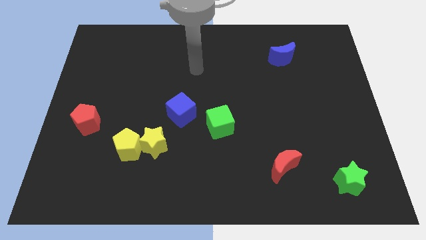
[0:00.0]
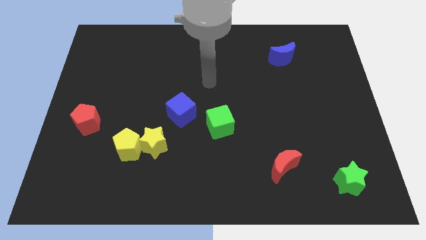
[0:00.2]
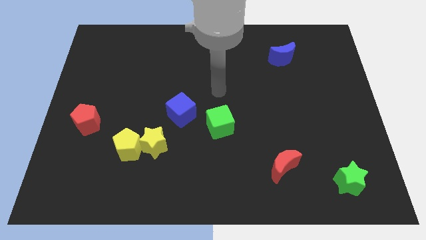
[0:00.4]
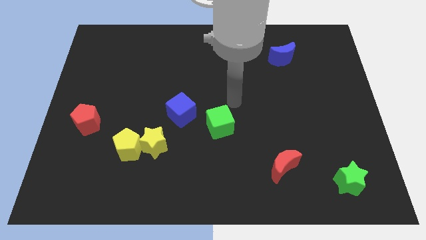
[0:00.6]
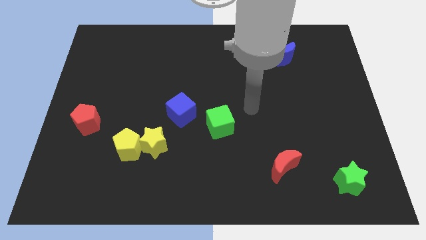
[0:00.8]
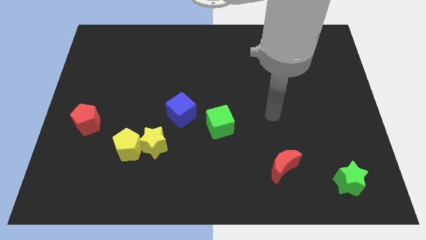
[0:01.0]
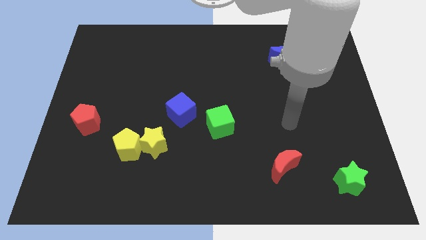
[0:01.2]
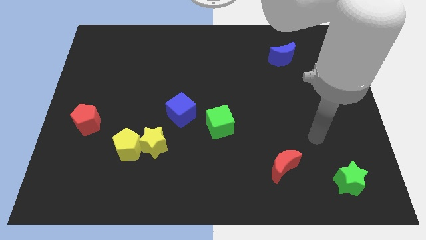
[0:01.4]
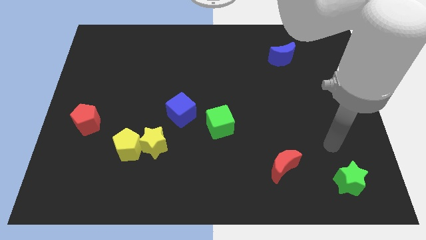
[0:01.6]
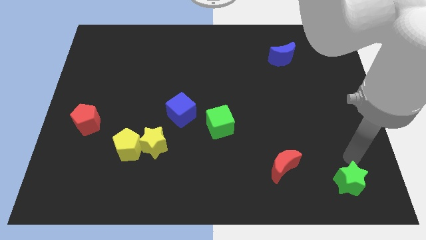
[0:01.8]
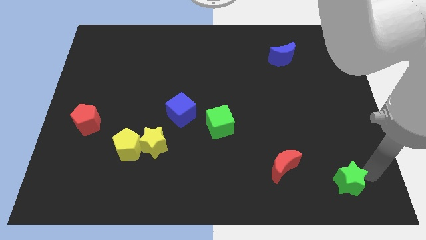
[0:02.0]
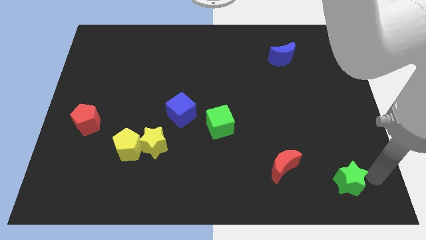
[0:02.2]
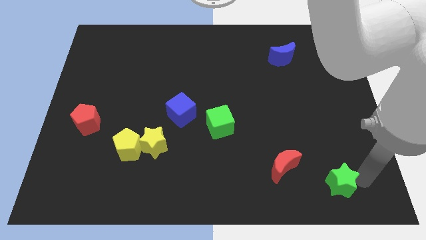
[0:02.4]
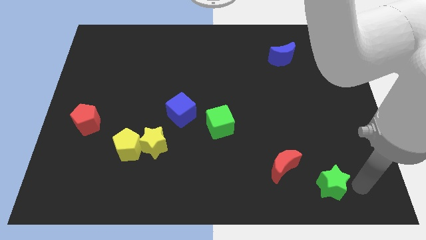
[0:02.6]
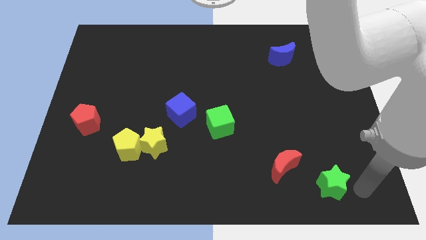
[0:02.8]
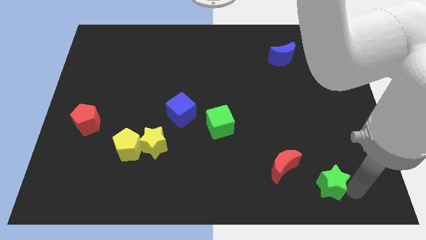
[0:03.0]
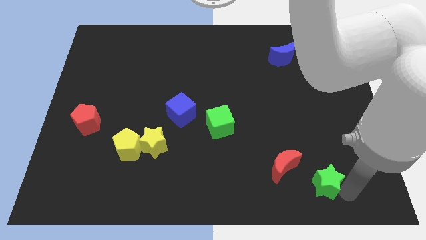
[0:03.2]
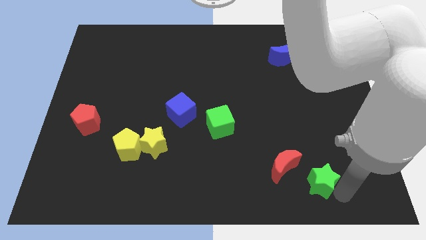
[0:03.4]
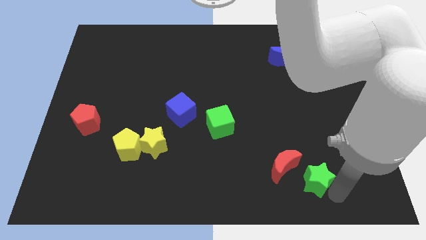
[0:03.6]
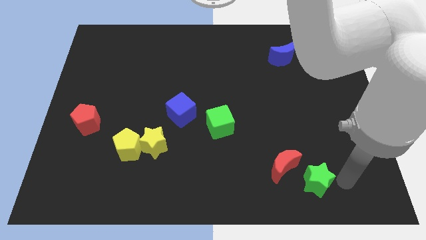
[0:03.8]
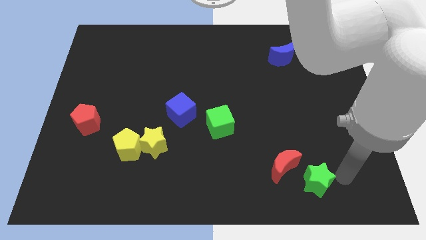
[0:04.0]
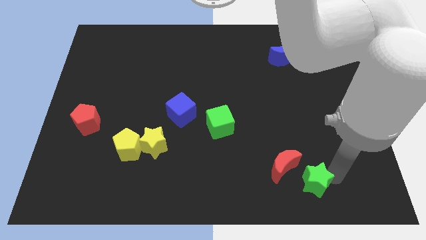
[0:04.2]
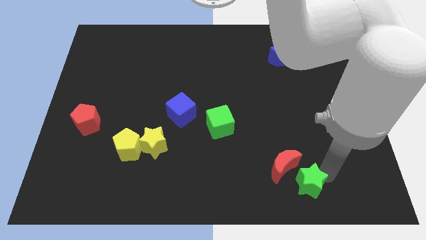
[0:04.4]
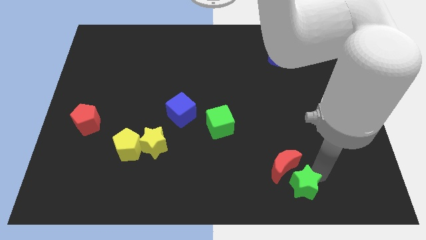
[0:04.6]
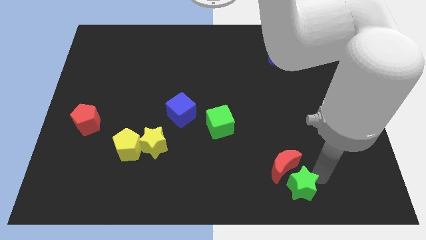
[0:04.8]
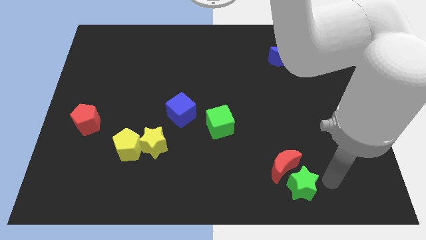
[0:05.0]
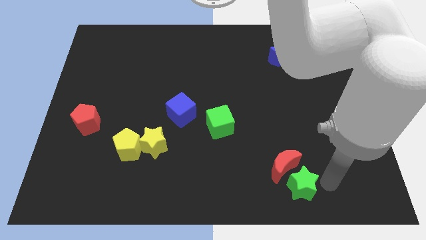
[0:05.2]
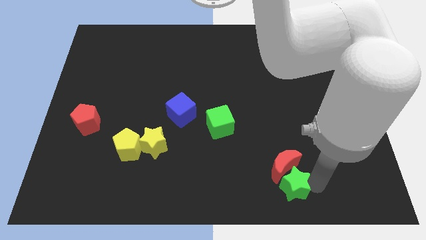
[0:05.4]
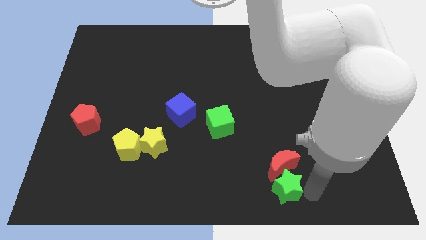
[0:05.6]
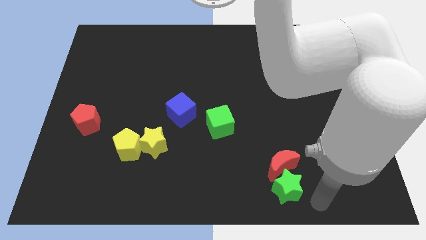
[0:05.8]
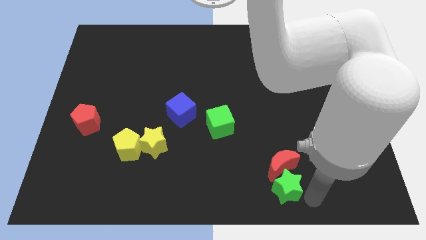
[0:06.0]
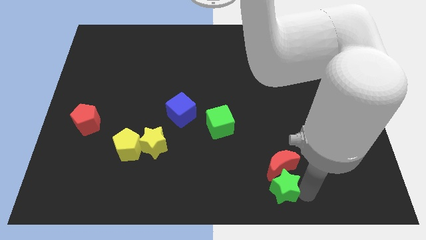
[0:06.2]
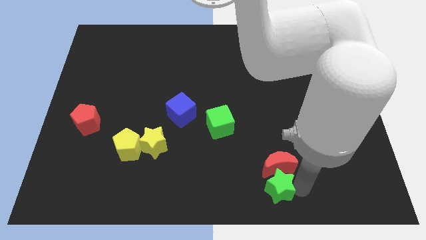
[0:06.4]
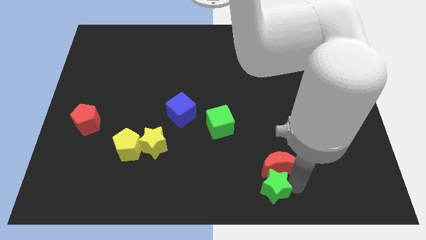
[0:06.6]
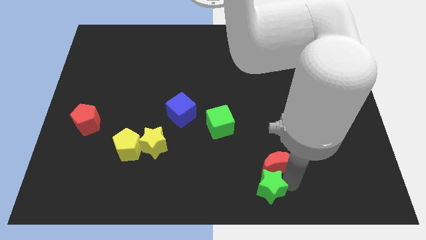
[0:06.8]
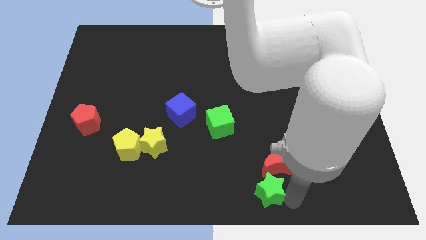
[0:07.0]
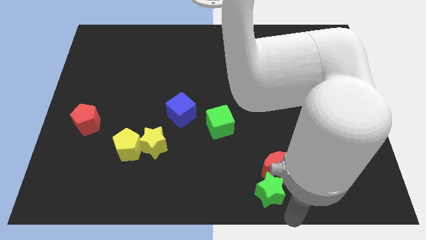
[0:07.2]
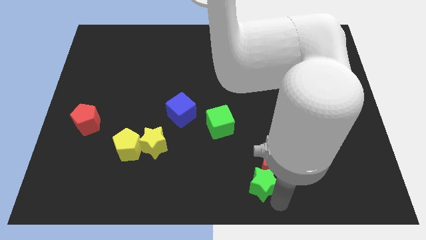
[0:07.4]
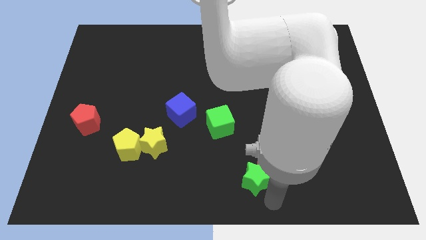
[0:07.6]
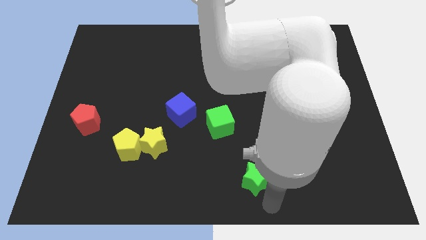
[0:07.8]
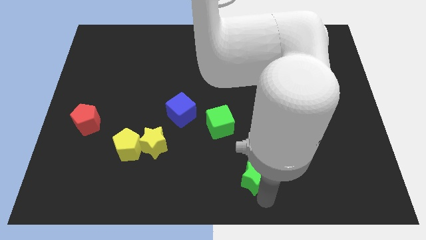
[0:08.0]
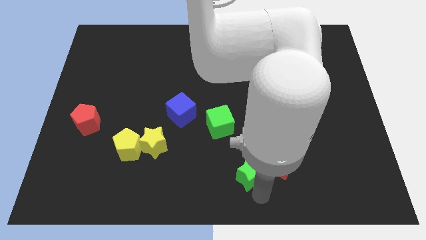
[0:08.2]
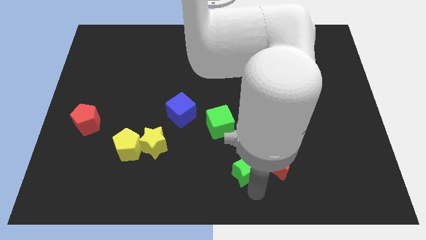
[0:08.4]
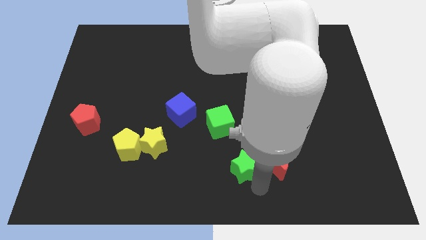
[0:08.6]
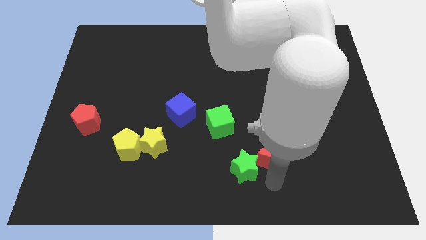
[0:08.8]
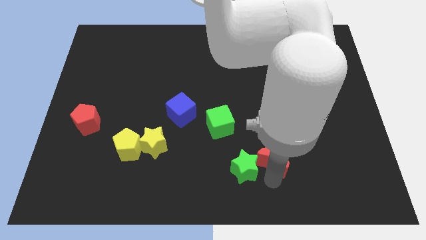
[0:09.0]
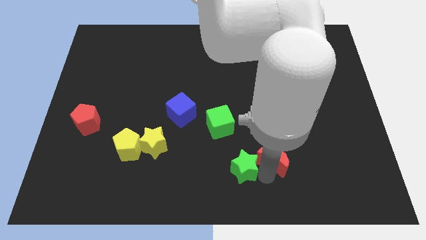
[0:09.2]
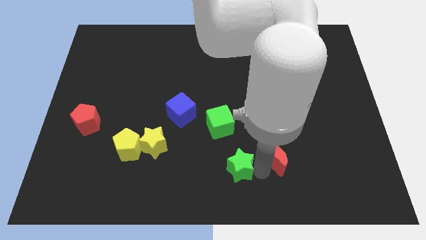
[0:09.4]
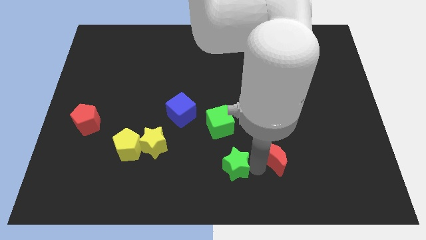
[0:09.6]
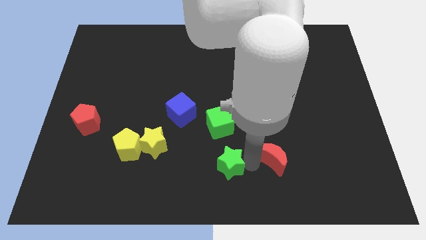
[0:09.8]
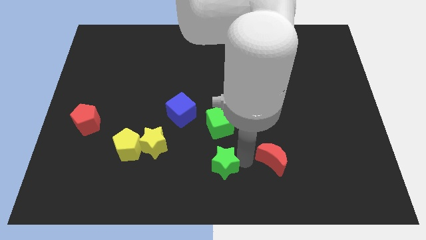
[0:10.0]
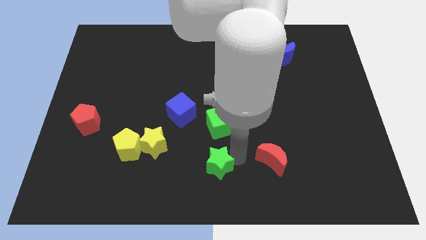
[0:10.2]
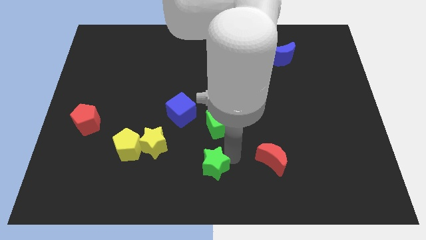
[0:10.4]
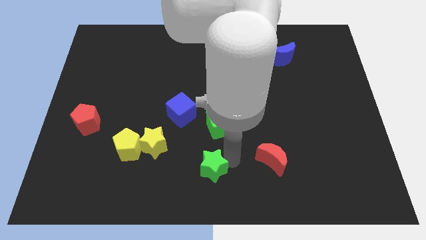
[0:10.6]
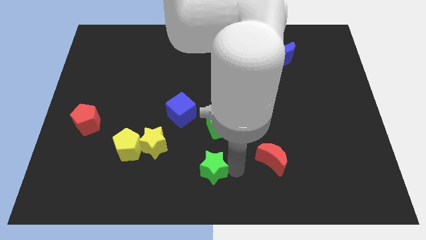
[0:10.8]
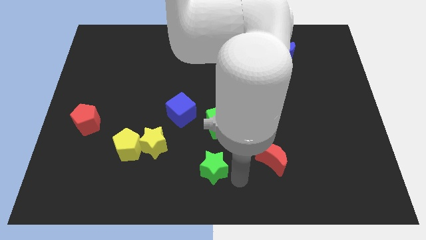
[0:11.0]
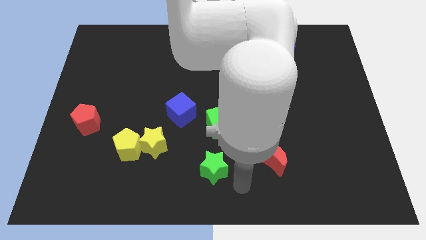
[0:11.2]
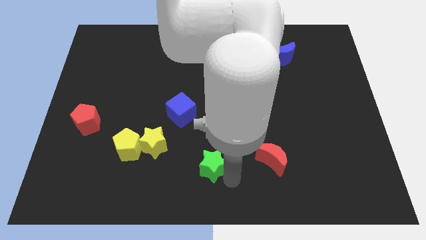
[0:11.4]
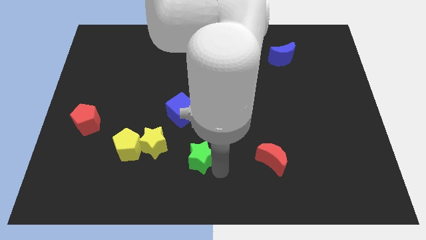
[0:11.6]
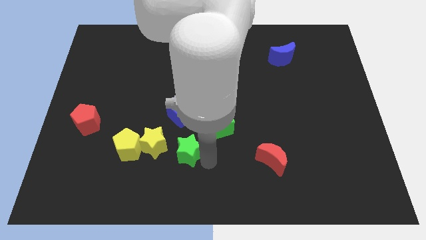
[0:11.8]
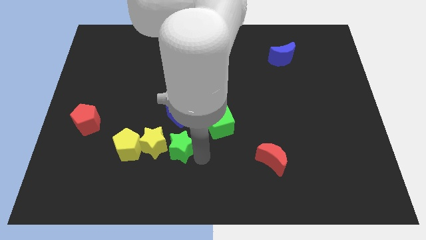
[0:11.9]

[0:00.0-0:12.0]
put the green star towards the yellow star

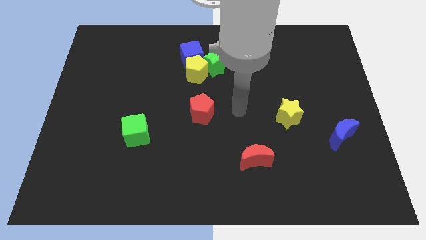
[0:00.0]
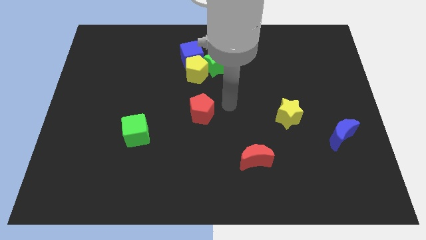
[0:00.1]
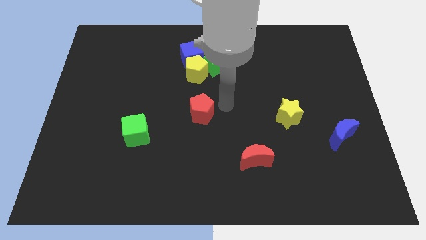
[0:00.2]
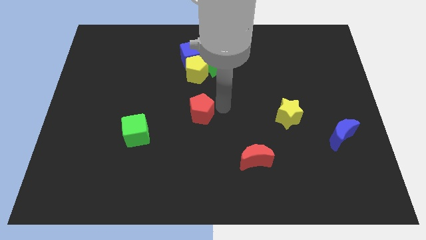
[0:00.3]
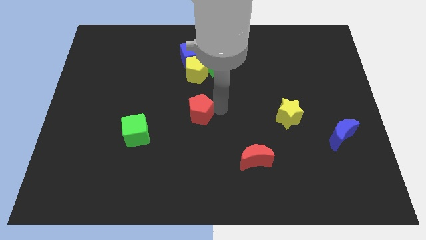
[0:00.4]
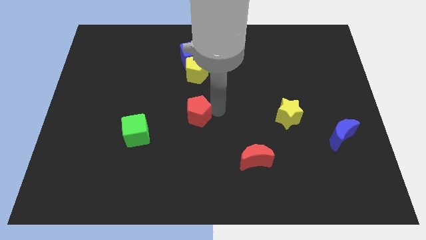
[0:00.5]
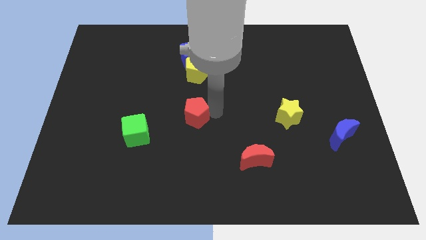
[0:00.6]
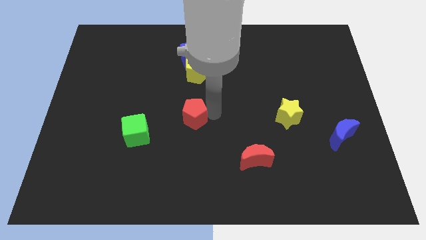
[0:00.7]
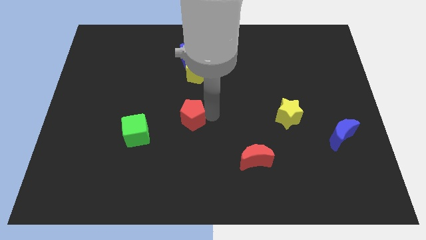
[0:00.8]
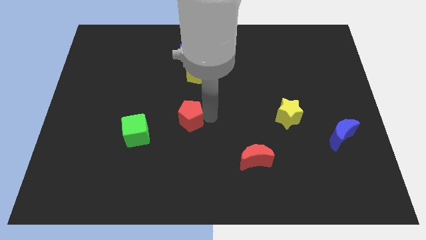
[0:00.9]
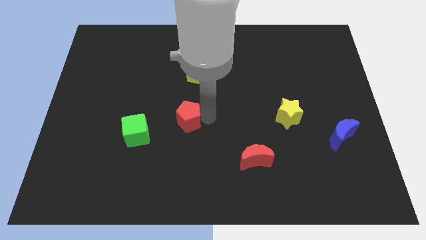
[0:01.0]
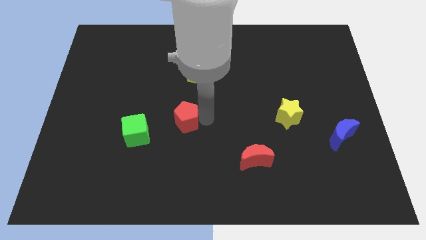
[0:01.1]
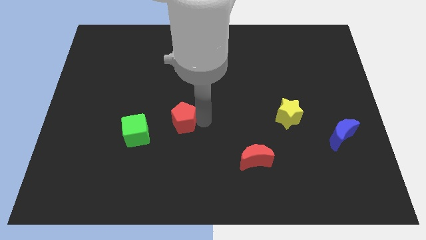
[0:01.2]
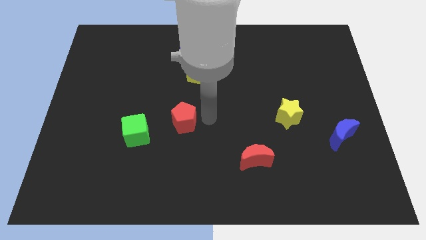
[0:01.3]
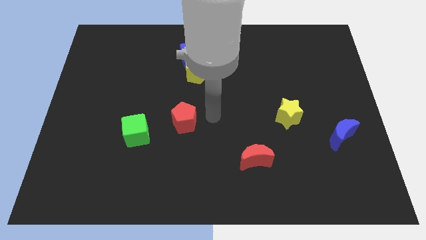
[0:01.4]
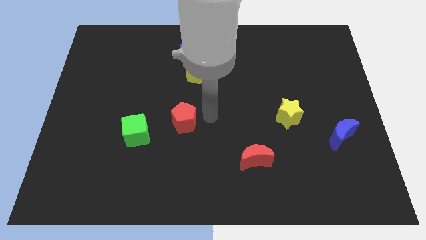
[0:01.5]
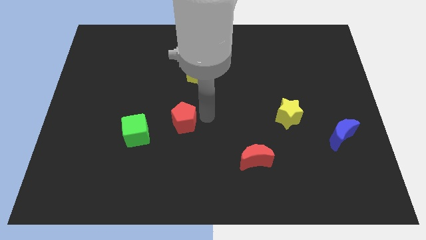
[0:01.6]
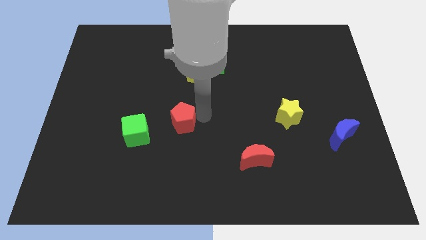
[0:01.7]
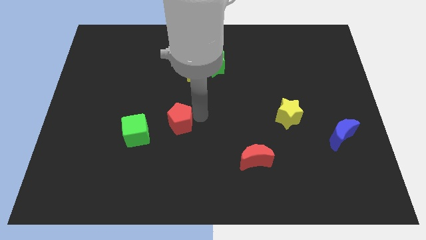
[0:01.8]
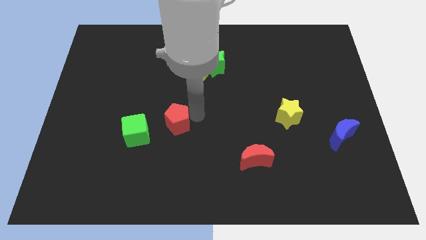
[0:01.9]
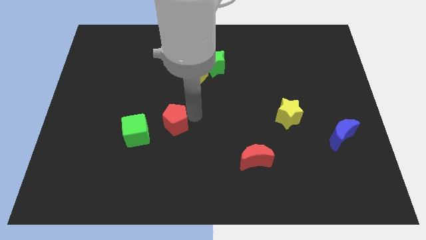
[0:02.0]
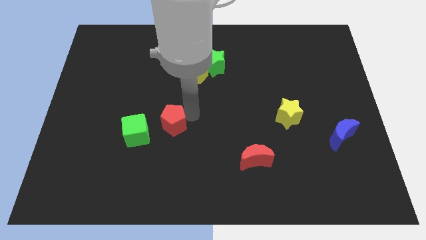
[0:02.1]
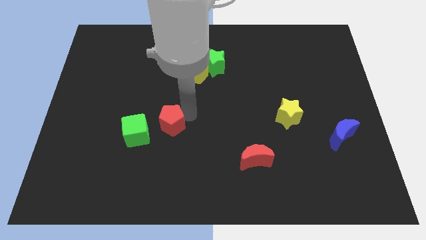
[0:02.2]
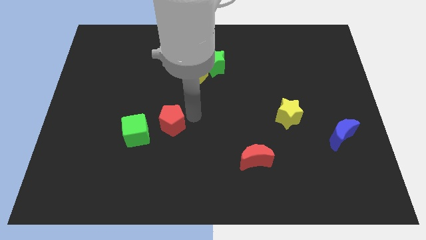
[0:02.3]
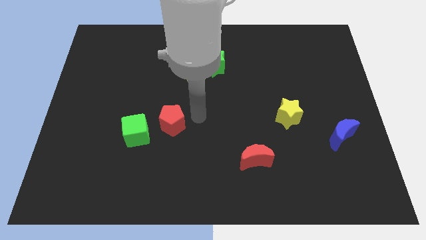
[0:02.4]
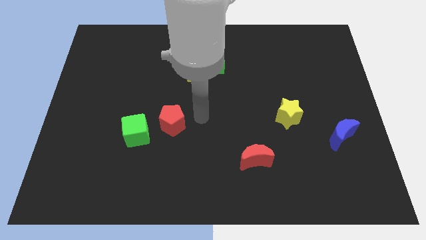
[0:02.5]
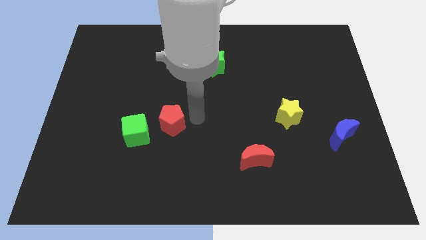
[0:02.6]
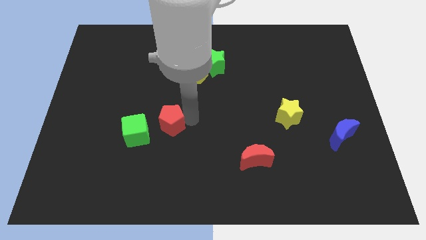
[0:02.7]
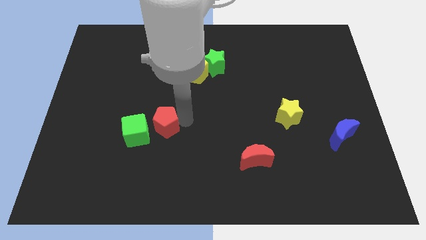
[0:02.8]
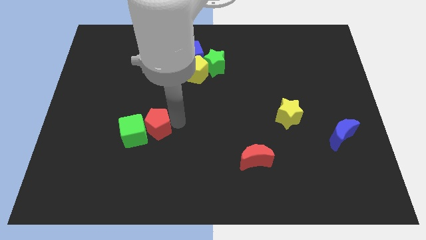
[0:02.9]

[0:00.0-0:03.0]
slide the red pentagon to the green cube
